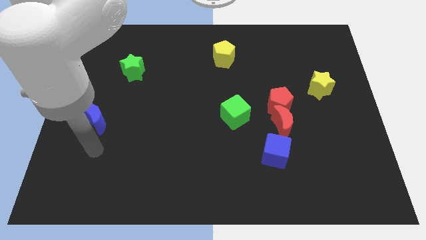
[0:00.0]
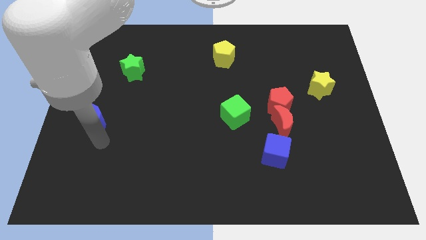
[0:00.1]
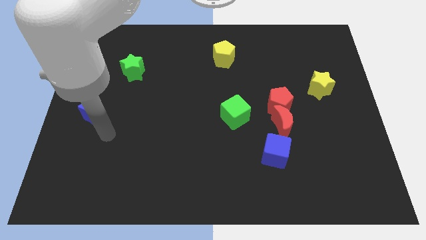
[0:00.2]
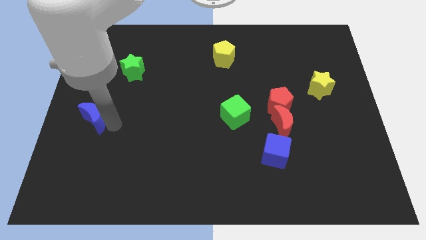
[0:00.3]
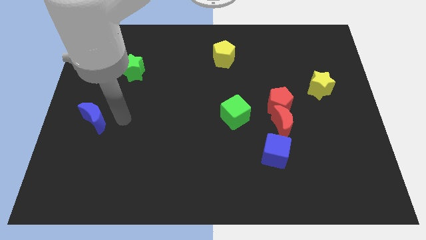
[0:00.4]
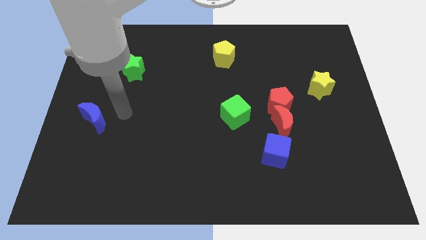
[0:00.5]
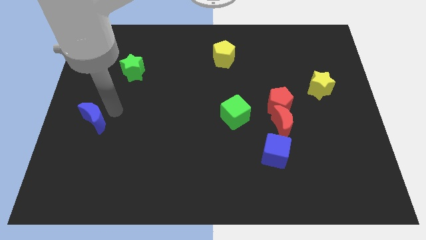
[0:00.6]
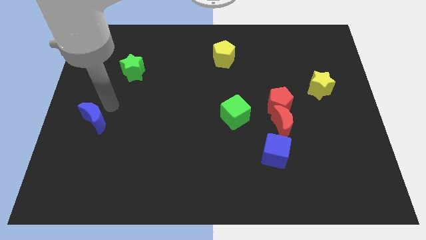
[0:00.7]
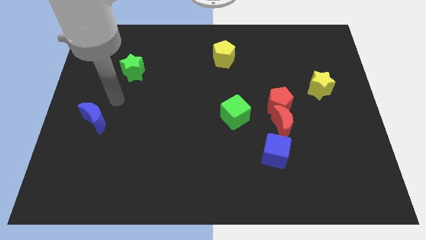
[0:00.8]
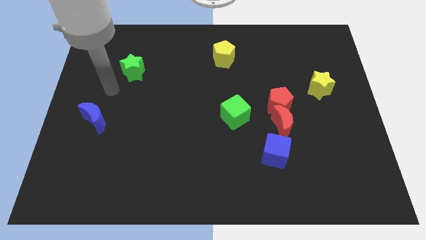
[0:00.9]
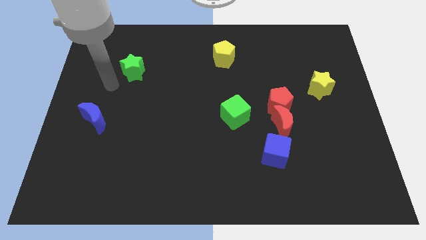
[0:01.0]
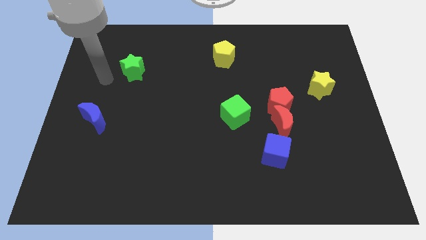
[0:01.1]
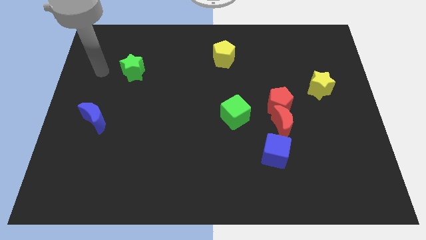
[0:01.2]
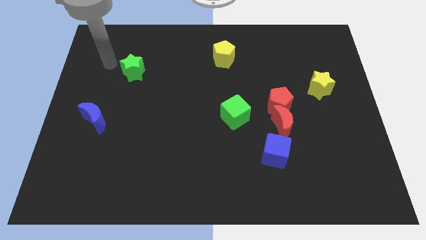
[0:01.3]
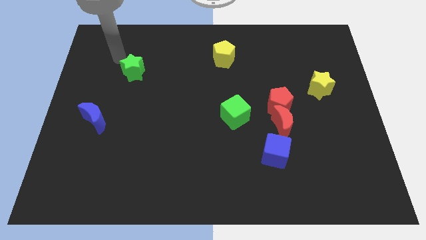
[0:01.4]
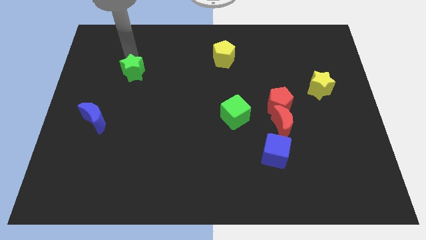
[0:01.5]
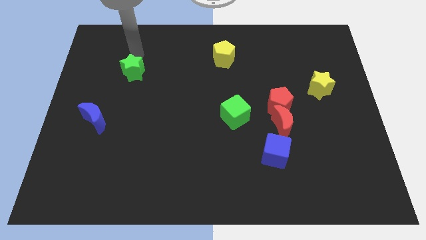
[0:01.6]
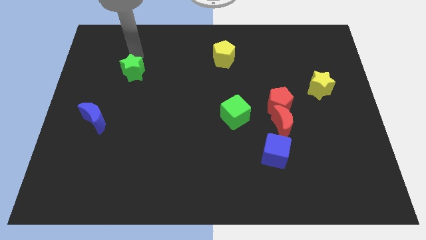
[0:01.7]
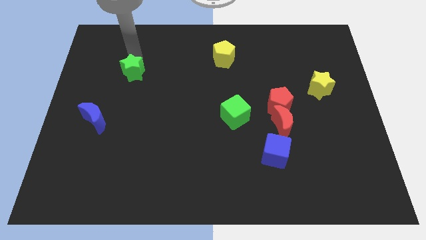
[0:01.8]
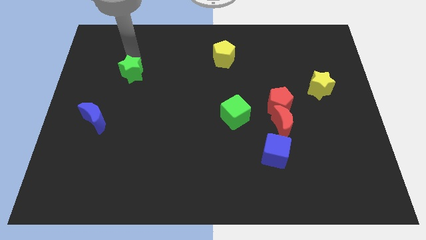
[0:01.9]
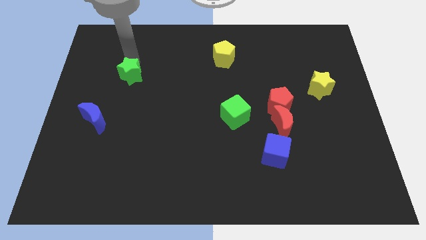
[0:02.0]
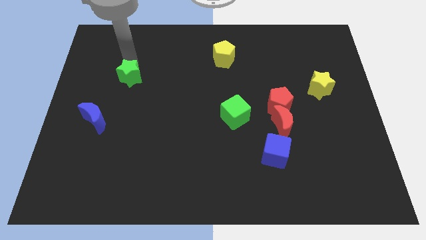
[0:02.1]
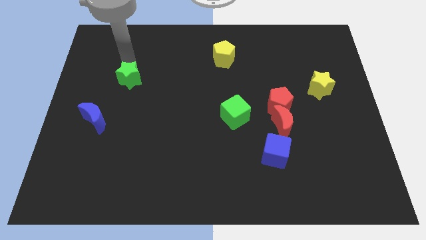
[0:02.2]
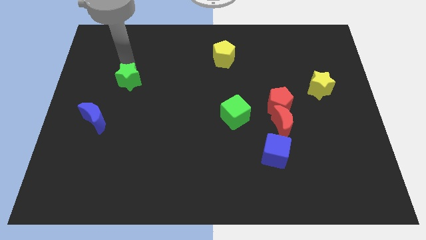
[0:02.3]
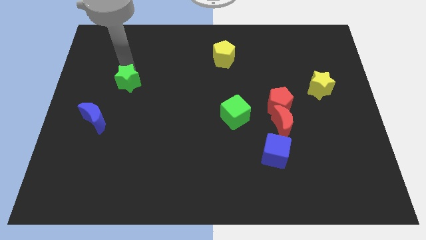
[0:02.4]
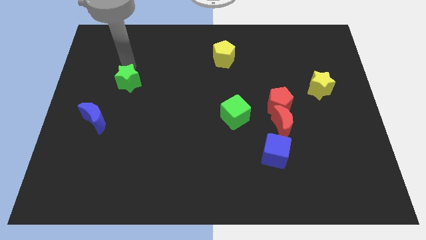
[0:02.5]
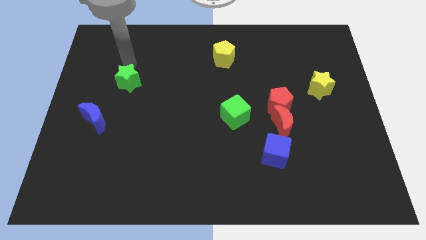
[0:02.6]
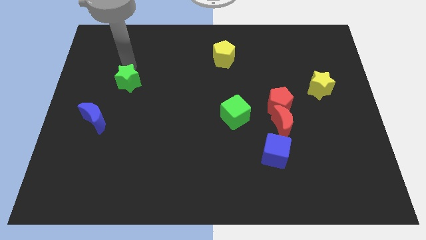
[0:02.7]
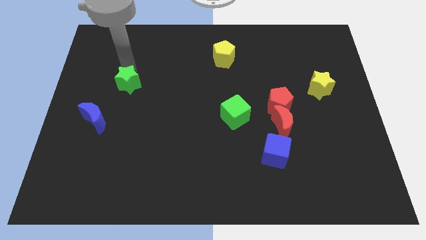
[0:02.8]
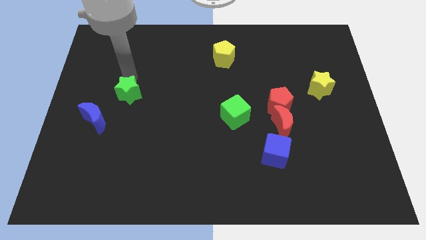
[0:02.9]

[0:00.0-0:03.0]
slightly move the green star down

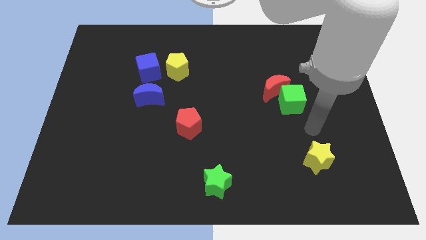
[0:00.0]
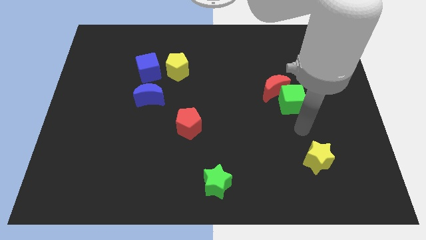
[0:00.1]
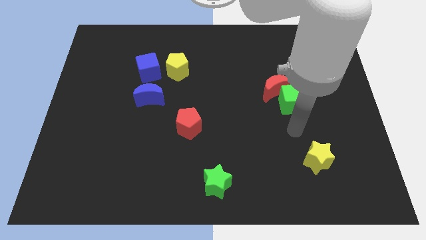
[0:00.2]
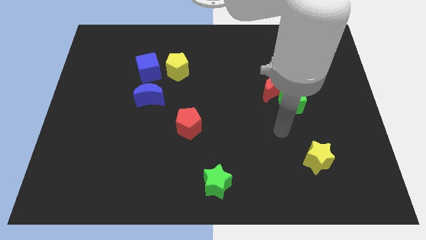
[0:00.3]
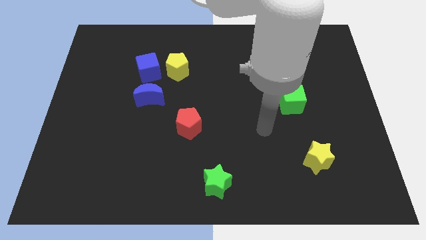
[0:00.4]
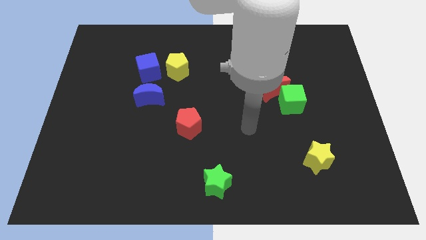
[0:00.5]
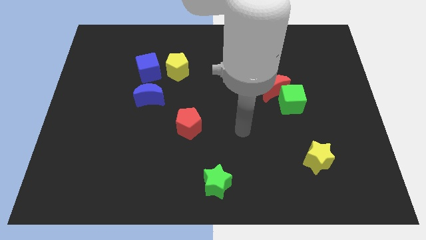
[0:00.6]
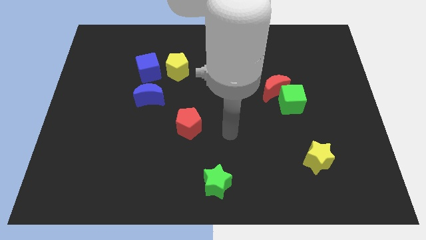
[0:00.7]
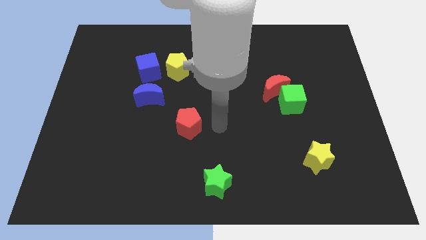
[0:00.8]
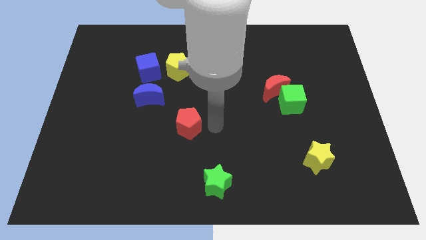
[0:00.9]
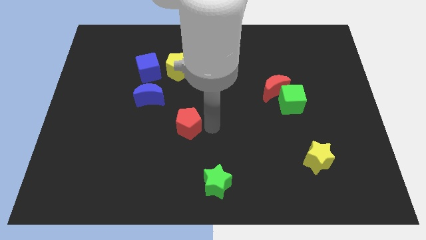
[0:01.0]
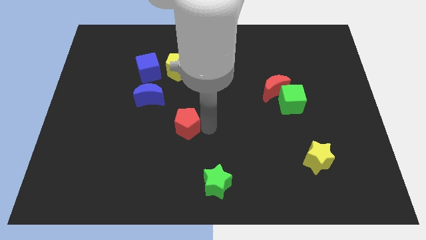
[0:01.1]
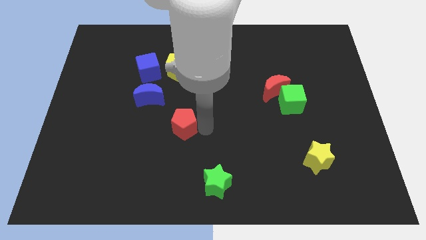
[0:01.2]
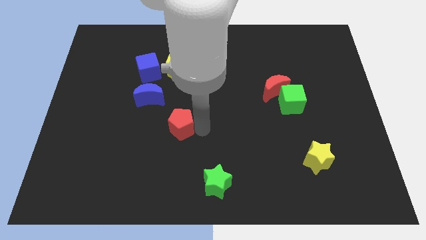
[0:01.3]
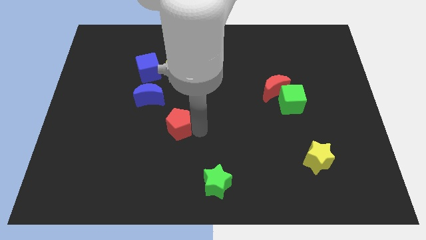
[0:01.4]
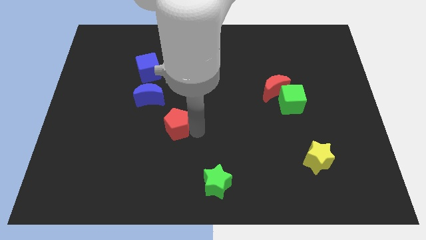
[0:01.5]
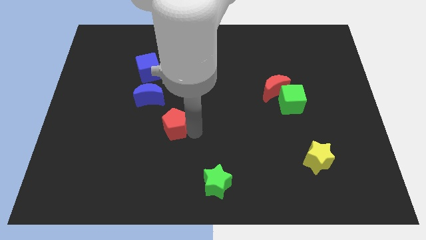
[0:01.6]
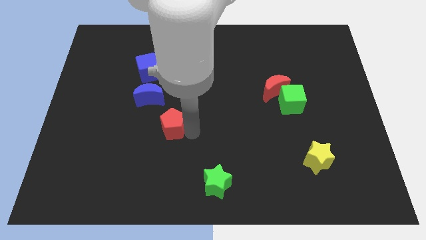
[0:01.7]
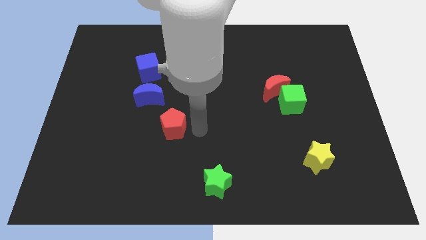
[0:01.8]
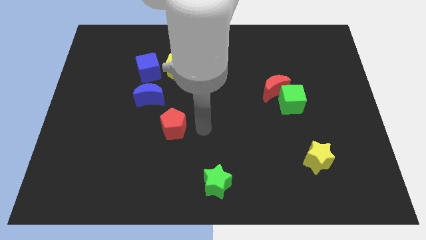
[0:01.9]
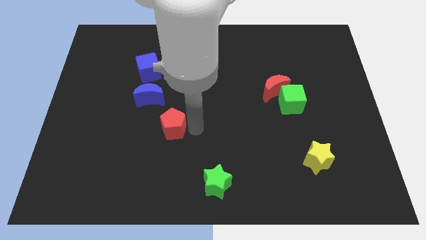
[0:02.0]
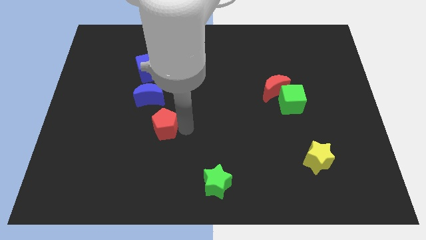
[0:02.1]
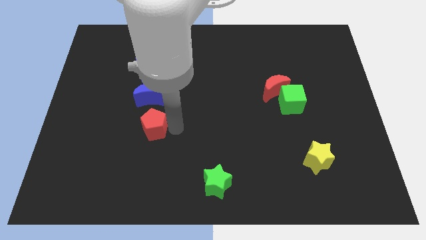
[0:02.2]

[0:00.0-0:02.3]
slightly move the red pentagon to the left

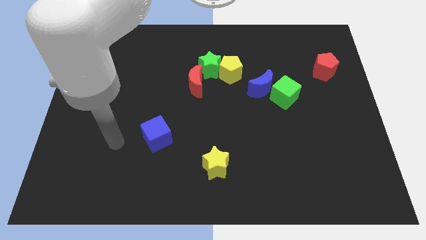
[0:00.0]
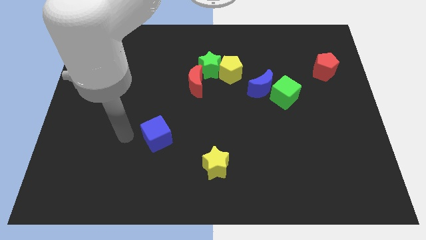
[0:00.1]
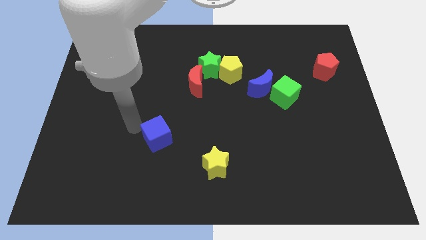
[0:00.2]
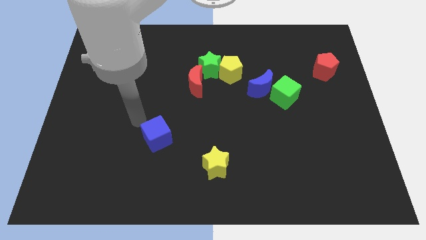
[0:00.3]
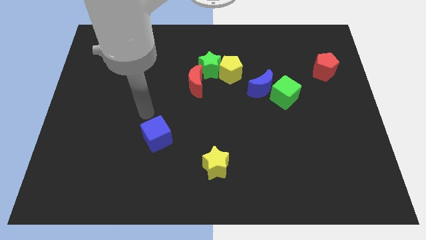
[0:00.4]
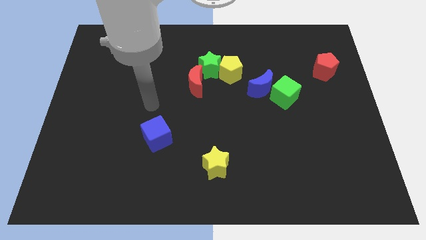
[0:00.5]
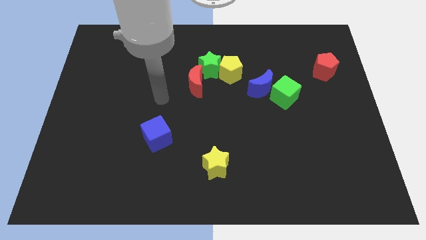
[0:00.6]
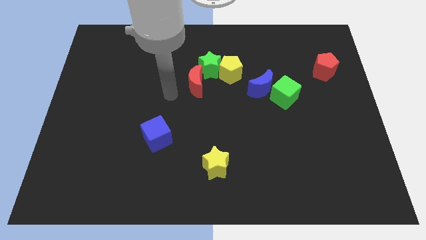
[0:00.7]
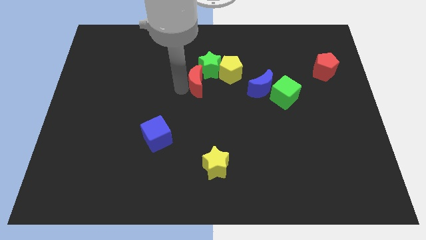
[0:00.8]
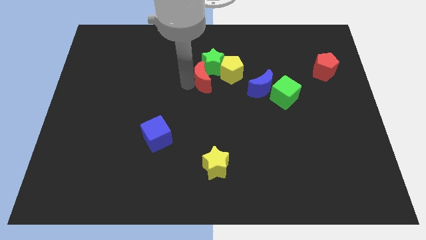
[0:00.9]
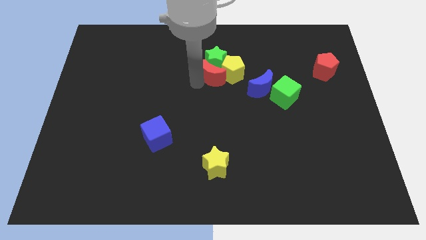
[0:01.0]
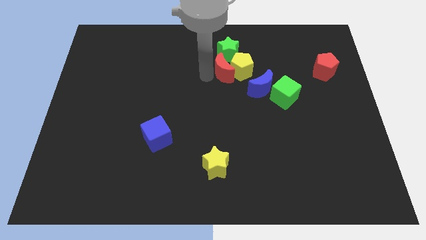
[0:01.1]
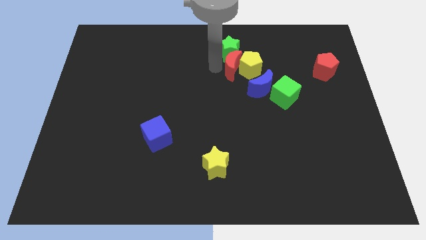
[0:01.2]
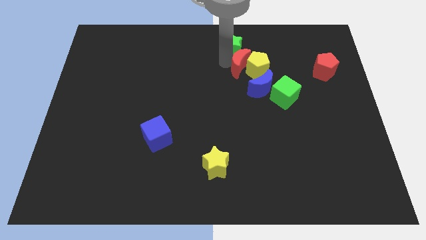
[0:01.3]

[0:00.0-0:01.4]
slightly push the yellow pentagon right

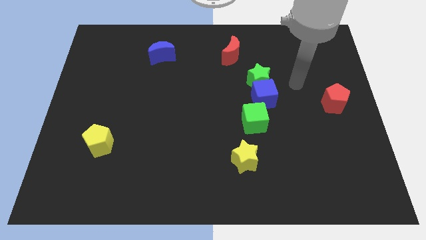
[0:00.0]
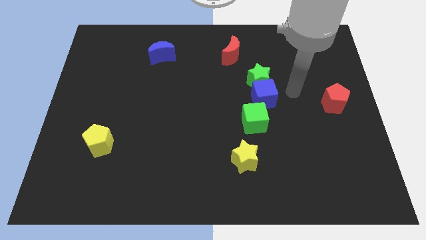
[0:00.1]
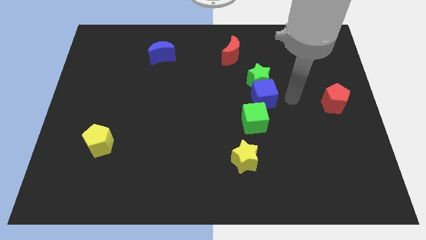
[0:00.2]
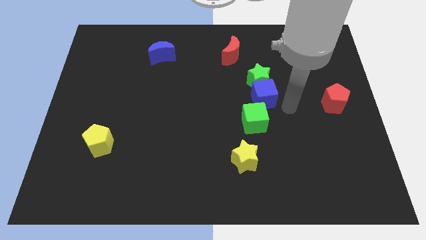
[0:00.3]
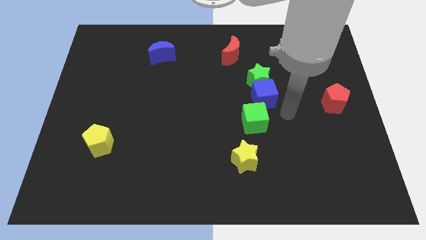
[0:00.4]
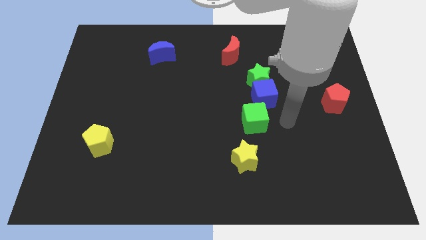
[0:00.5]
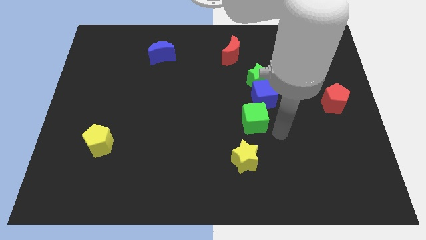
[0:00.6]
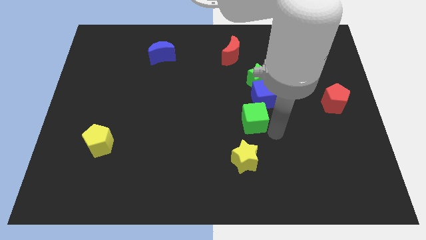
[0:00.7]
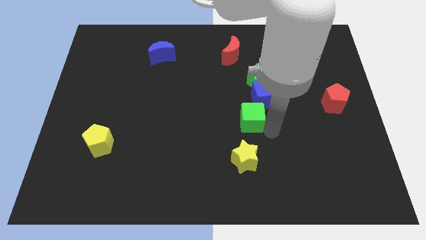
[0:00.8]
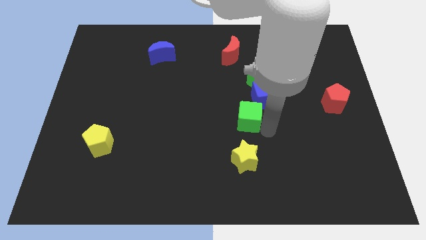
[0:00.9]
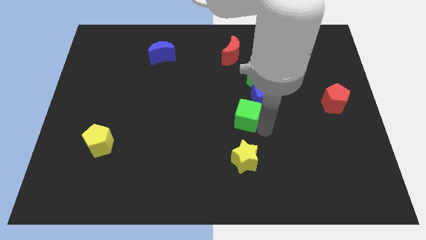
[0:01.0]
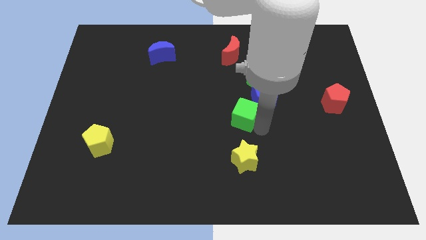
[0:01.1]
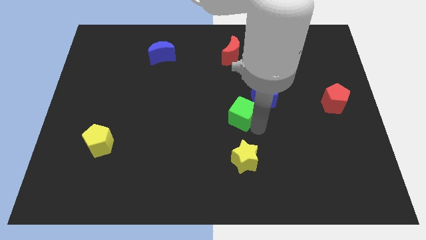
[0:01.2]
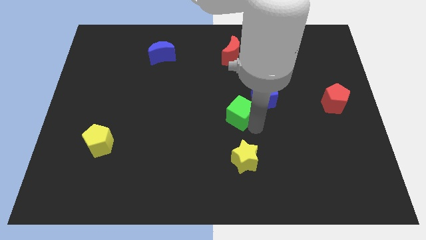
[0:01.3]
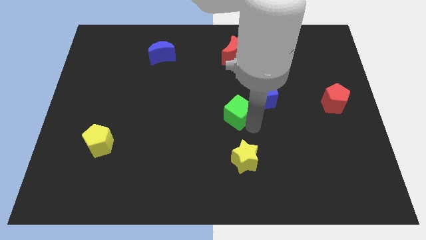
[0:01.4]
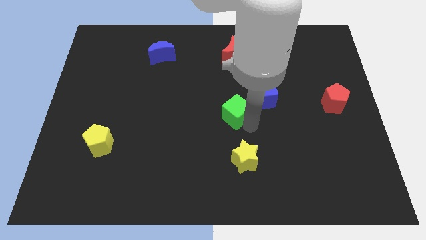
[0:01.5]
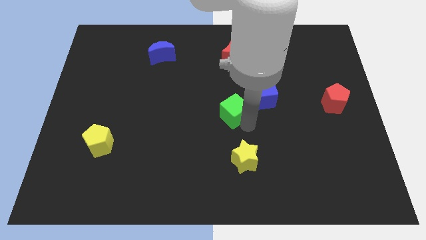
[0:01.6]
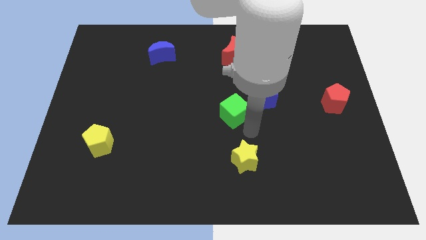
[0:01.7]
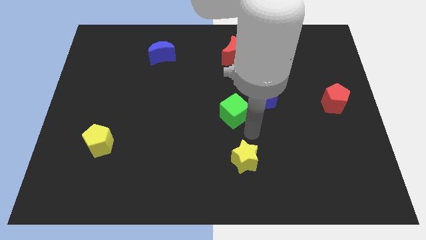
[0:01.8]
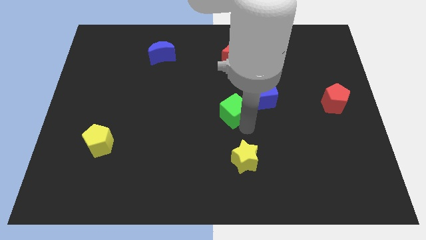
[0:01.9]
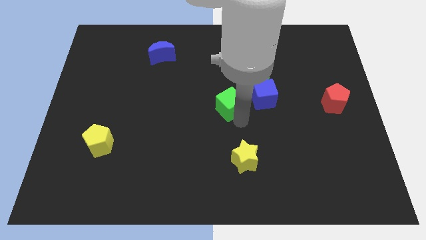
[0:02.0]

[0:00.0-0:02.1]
move the green cube a little diagonally upwards and to the left

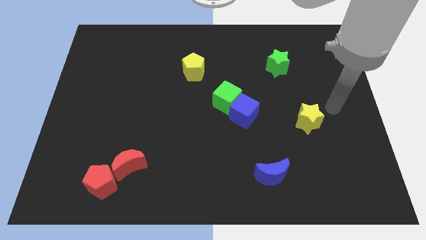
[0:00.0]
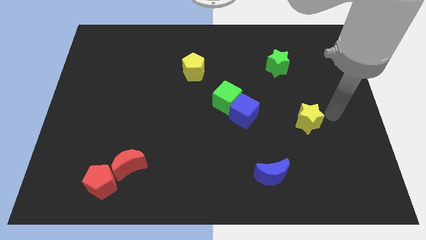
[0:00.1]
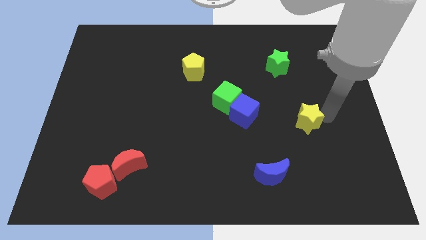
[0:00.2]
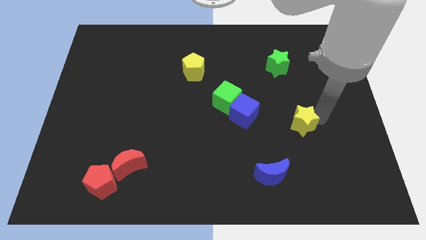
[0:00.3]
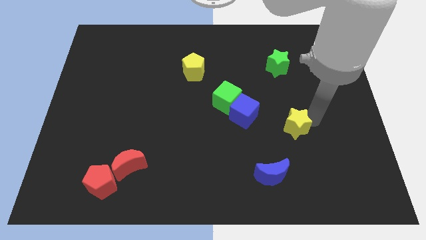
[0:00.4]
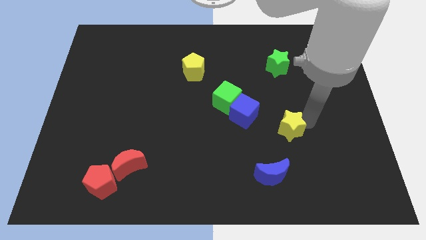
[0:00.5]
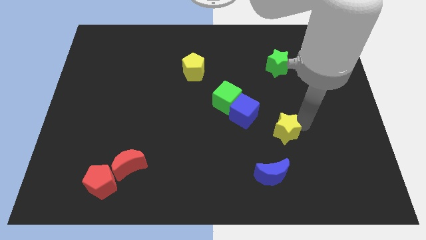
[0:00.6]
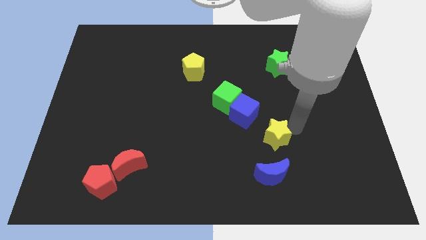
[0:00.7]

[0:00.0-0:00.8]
push the yellow star left a little
